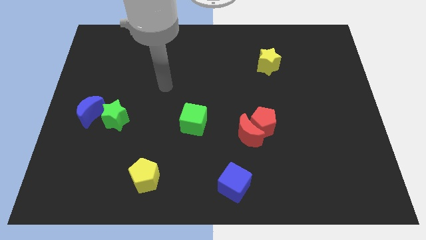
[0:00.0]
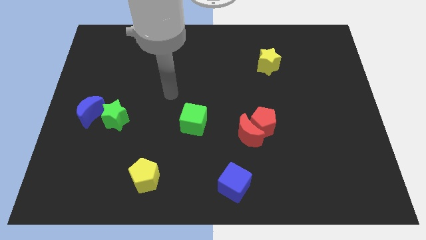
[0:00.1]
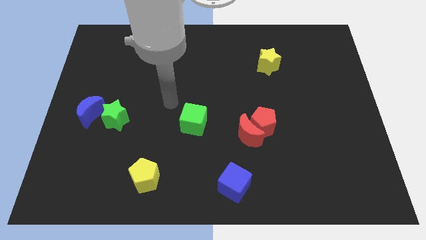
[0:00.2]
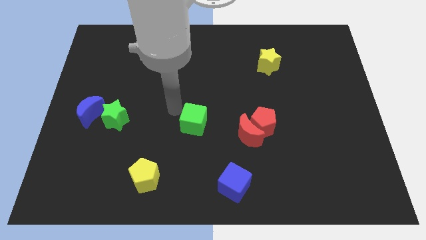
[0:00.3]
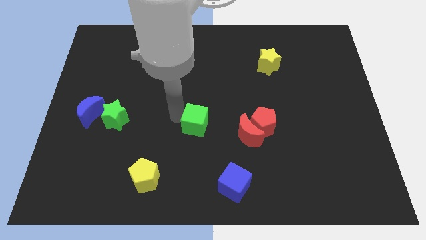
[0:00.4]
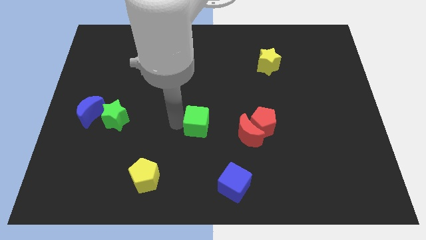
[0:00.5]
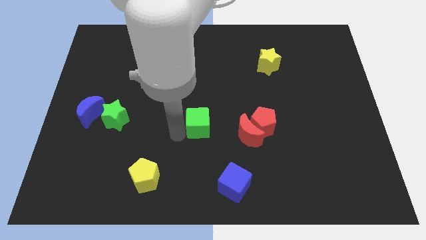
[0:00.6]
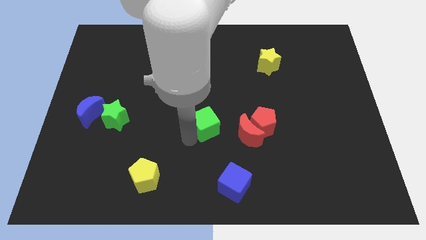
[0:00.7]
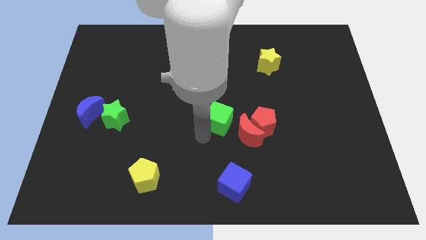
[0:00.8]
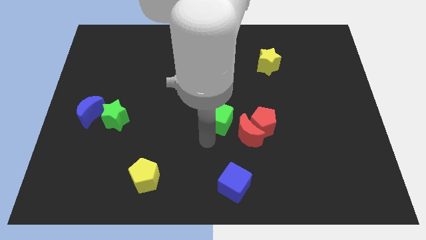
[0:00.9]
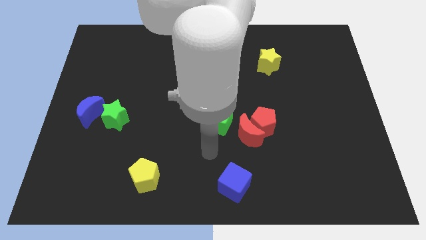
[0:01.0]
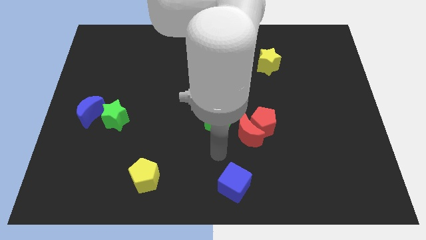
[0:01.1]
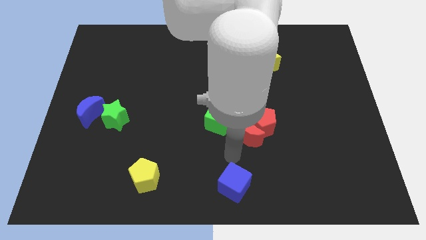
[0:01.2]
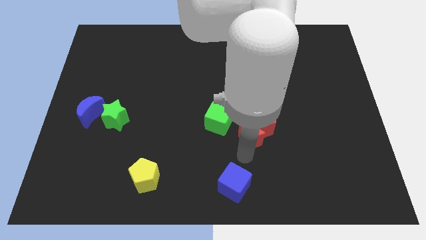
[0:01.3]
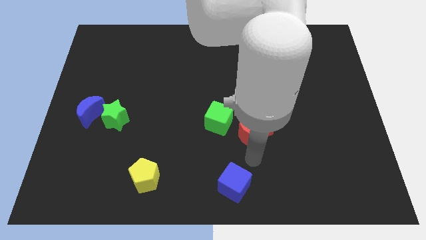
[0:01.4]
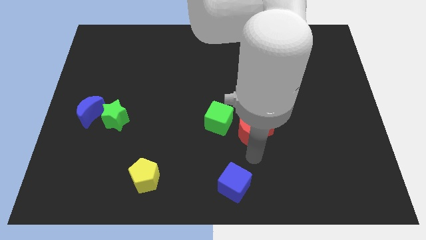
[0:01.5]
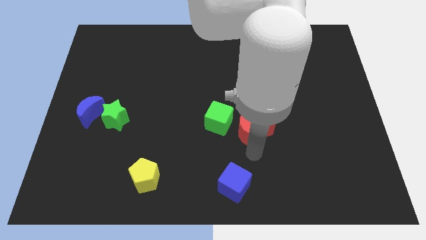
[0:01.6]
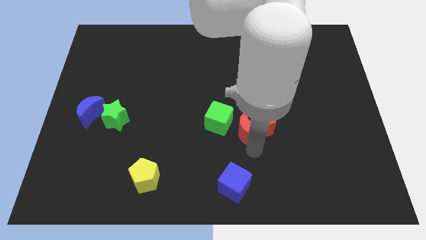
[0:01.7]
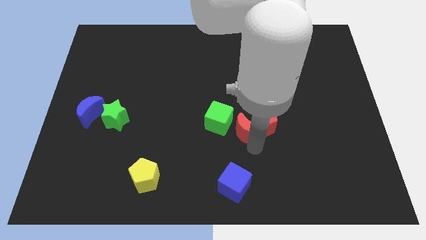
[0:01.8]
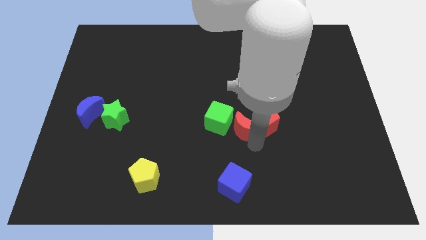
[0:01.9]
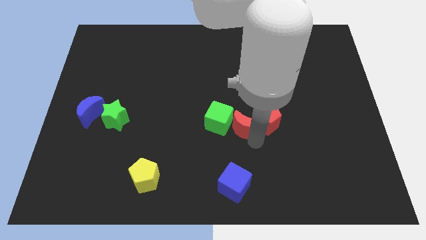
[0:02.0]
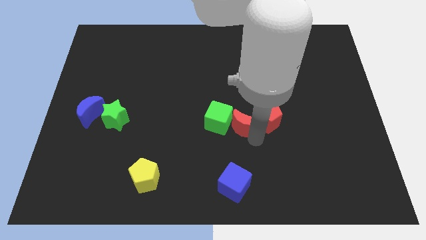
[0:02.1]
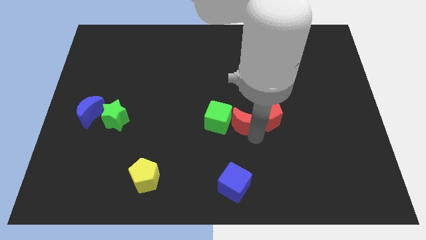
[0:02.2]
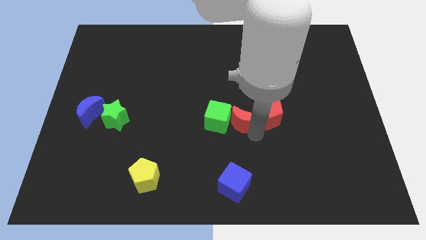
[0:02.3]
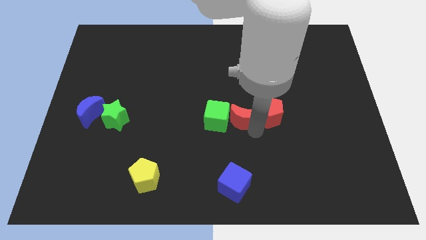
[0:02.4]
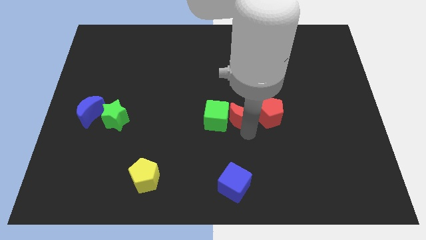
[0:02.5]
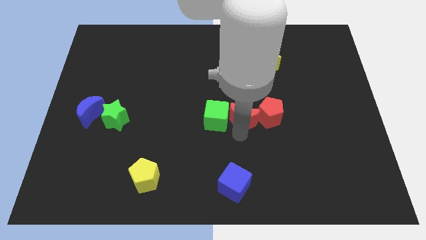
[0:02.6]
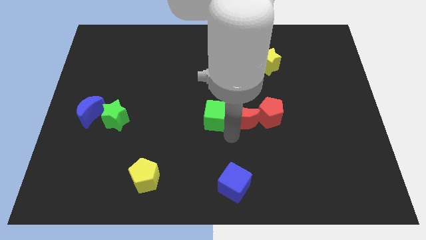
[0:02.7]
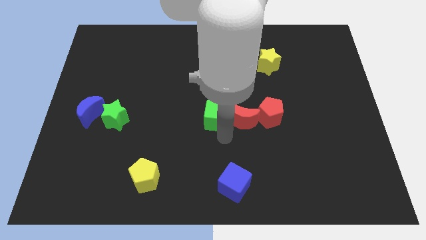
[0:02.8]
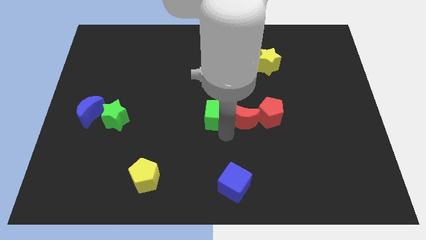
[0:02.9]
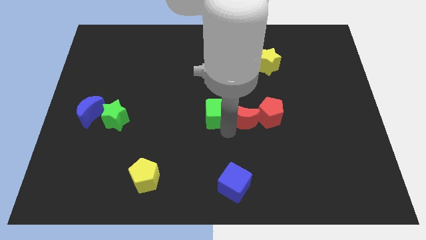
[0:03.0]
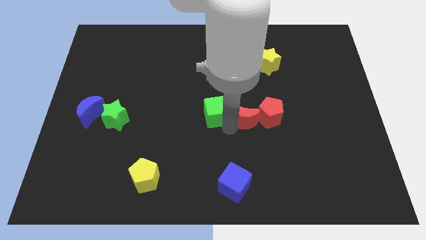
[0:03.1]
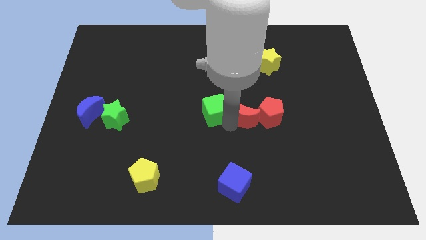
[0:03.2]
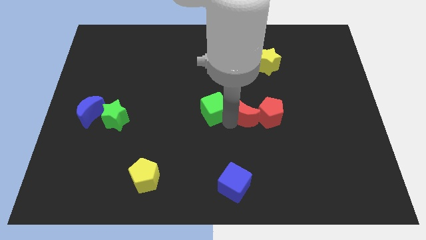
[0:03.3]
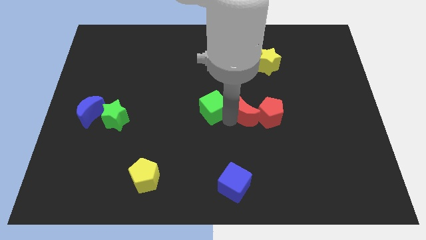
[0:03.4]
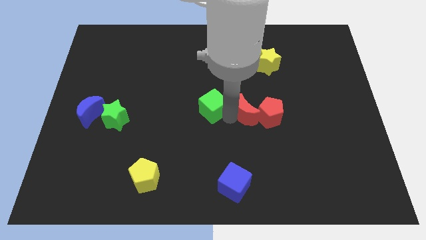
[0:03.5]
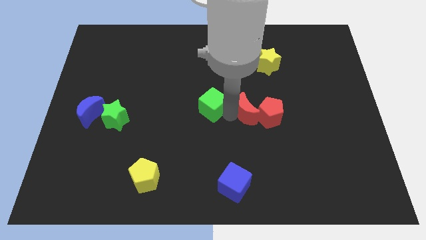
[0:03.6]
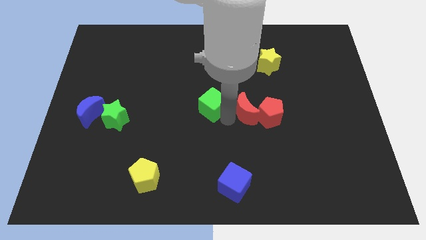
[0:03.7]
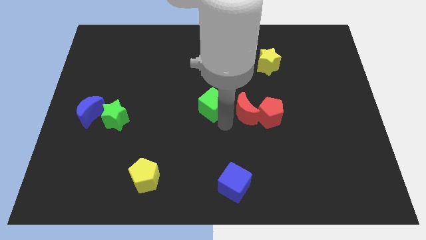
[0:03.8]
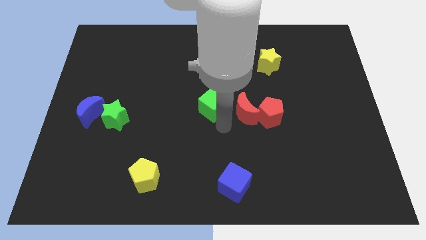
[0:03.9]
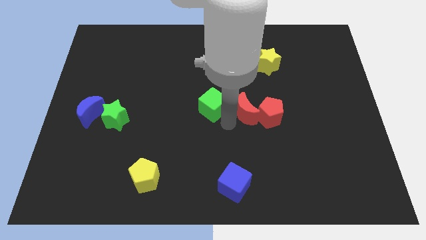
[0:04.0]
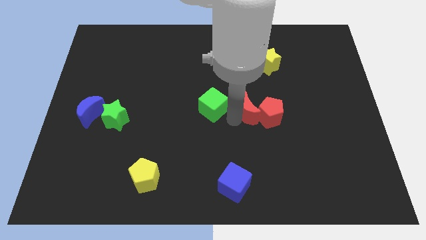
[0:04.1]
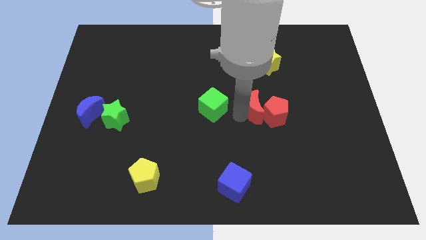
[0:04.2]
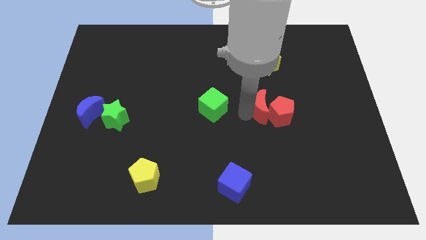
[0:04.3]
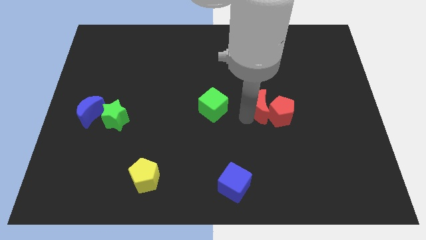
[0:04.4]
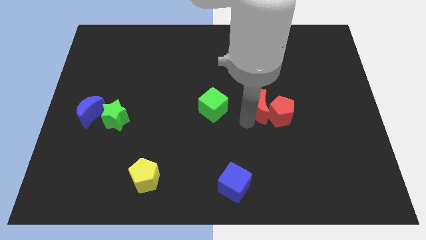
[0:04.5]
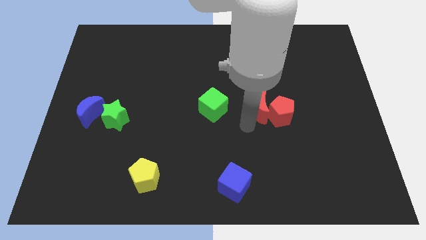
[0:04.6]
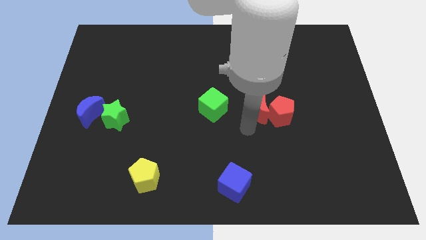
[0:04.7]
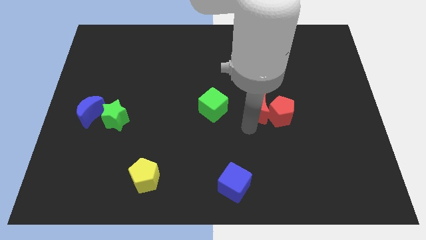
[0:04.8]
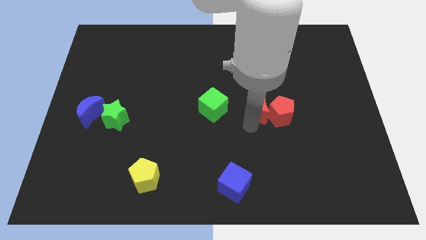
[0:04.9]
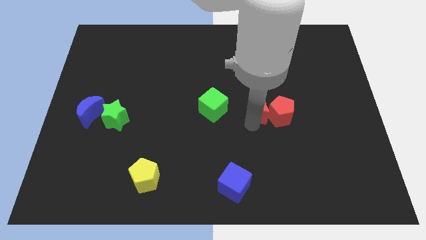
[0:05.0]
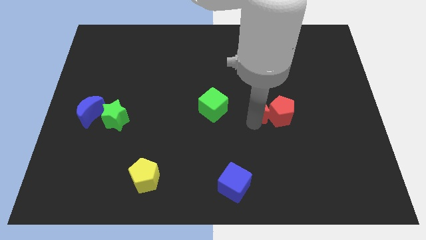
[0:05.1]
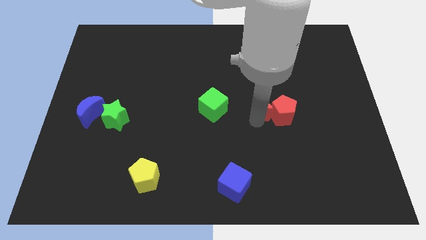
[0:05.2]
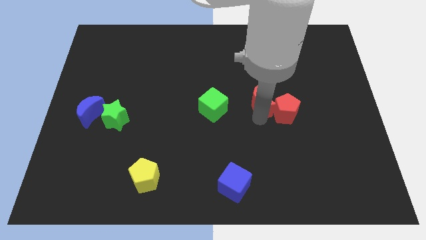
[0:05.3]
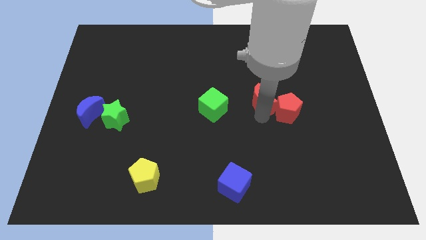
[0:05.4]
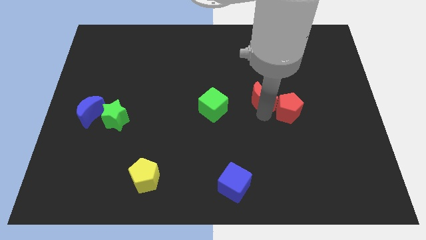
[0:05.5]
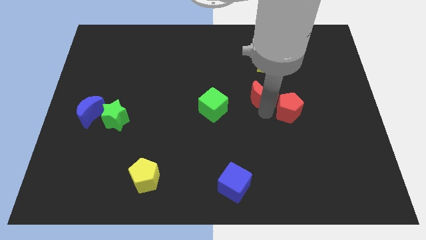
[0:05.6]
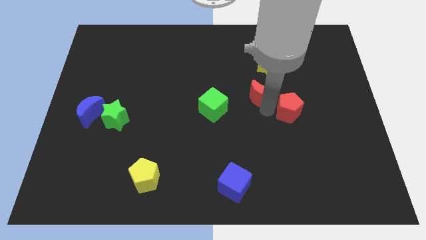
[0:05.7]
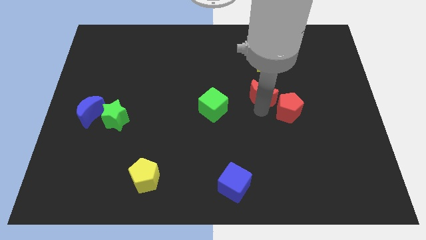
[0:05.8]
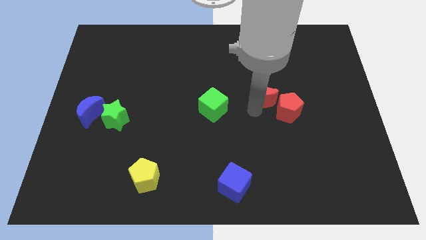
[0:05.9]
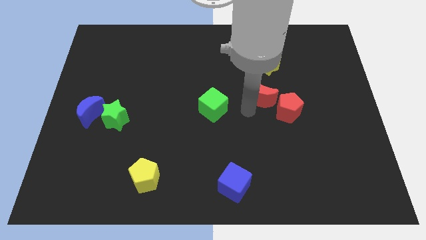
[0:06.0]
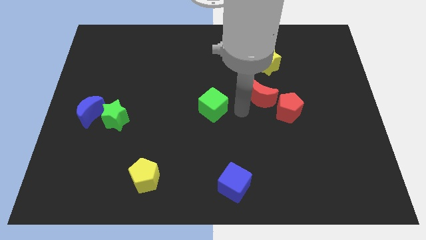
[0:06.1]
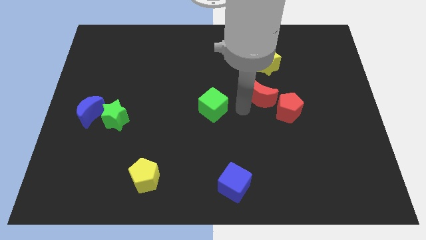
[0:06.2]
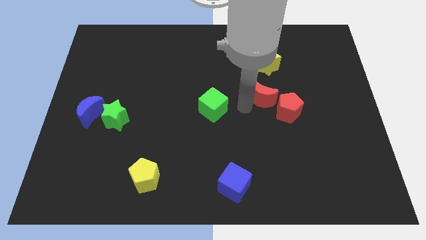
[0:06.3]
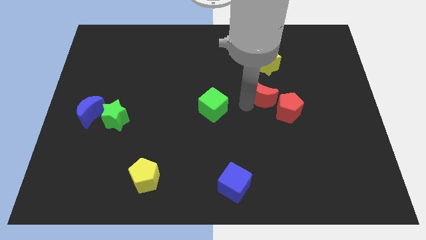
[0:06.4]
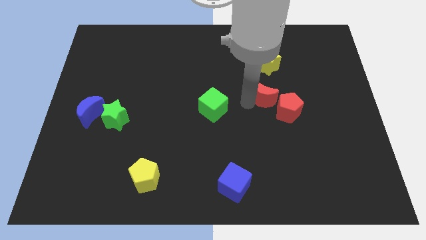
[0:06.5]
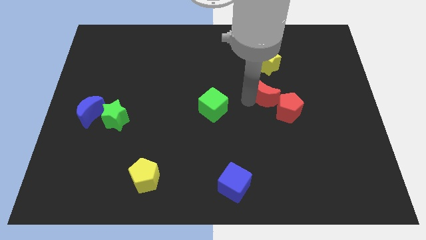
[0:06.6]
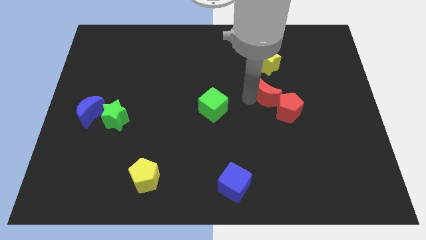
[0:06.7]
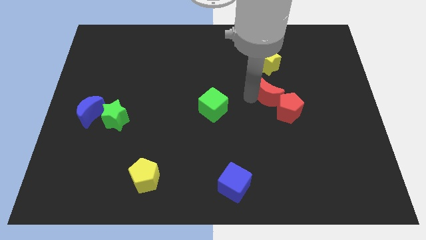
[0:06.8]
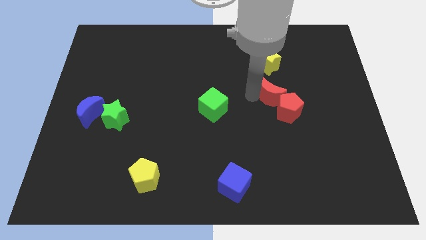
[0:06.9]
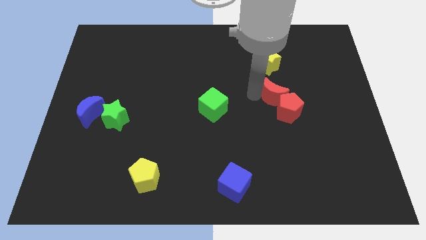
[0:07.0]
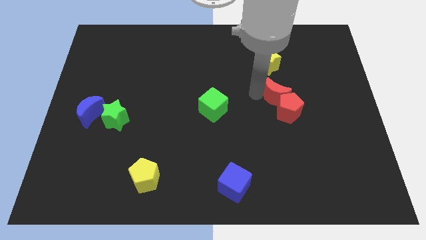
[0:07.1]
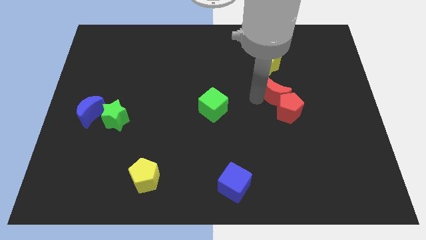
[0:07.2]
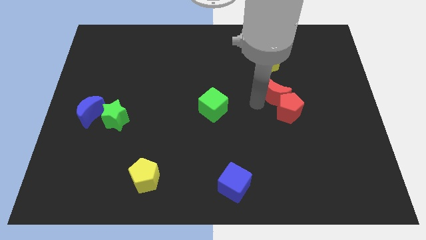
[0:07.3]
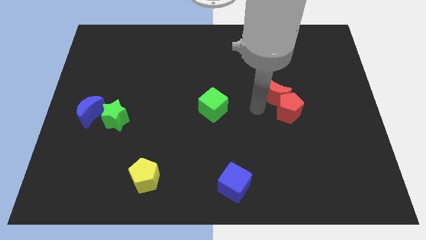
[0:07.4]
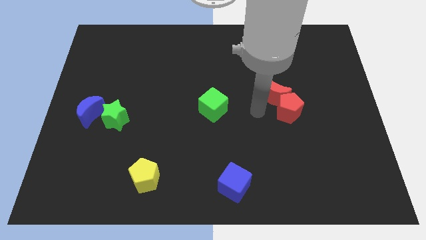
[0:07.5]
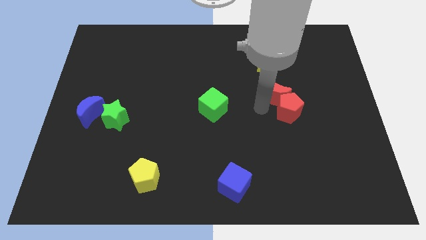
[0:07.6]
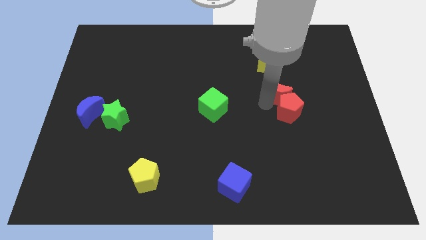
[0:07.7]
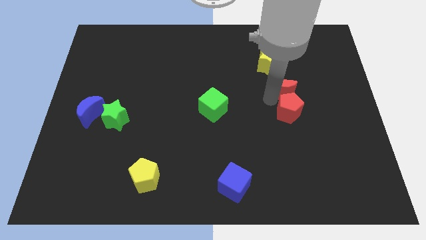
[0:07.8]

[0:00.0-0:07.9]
put the red moon to the bottom right side of the yellow star
